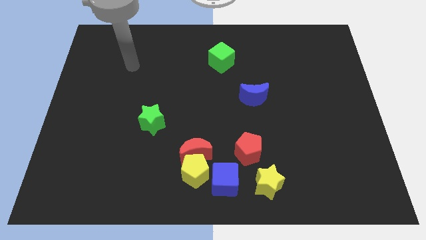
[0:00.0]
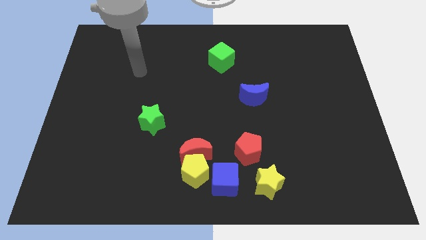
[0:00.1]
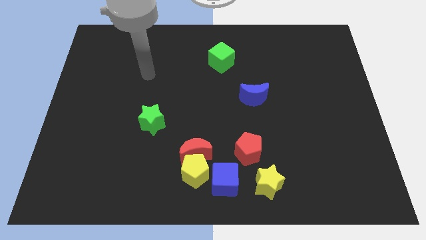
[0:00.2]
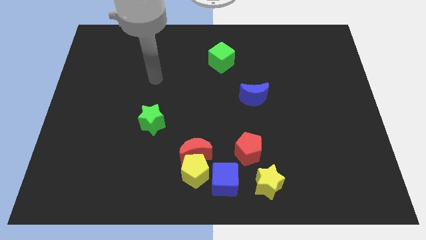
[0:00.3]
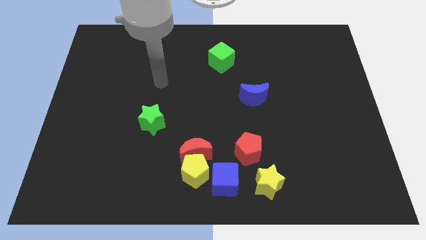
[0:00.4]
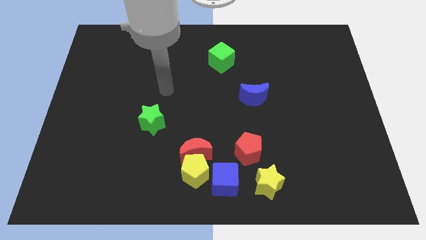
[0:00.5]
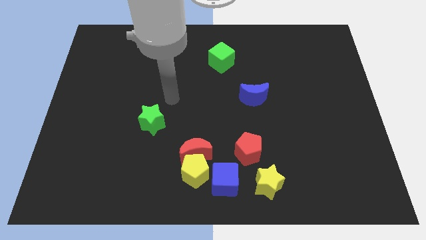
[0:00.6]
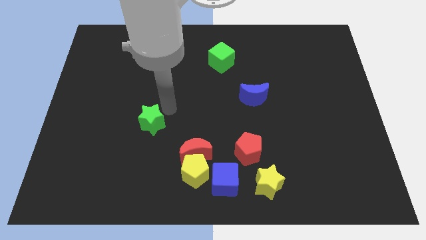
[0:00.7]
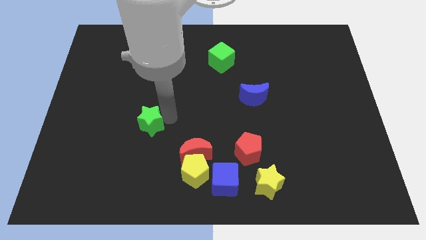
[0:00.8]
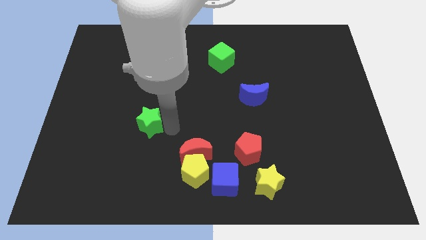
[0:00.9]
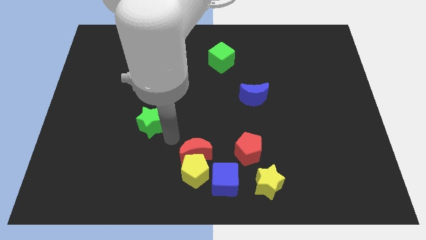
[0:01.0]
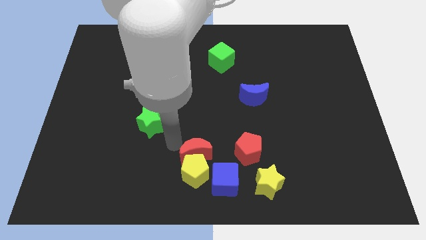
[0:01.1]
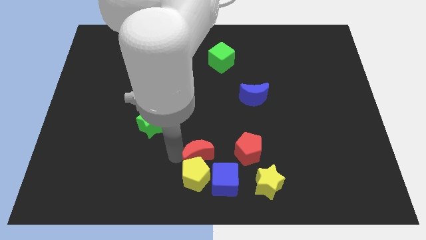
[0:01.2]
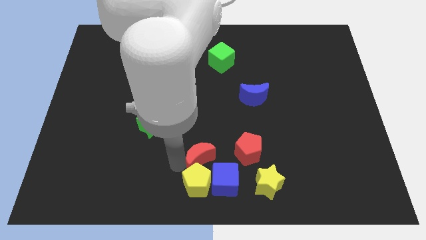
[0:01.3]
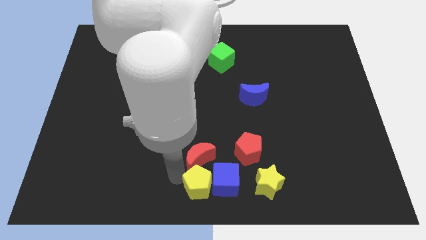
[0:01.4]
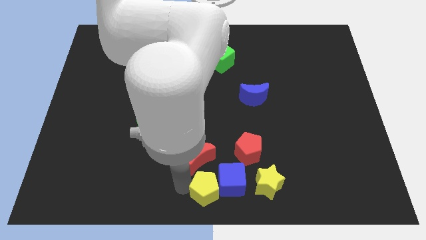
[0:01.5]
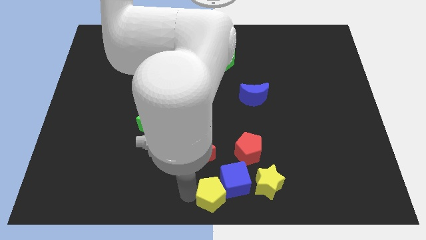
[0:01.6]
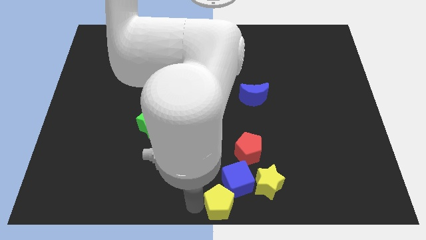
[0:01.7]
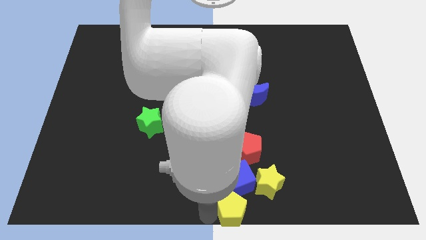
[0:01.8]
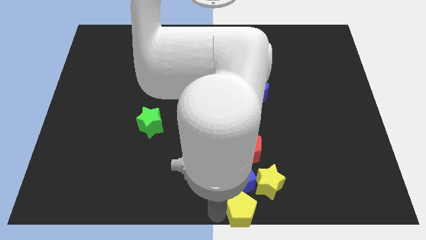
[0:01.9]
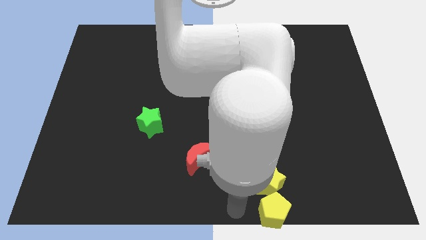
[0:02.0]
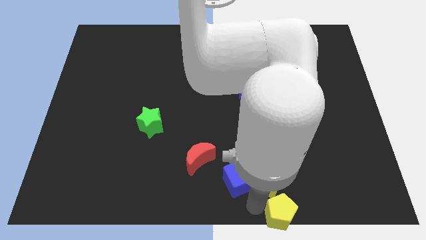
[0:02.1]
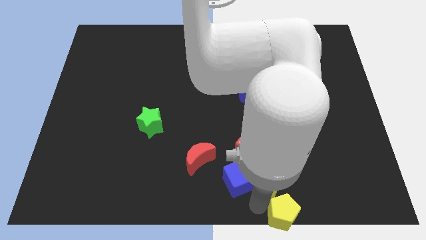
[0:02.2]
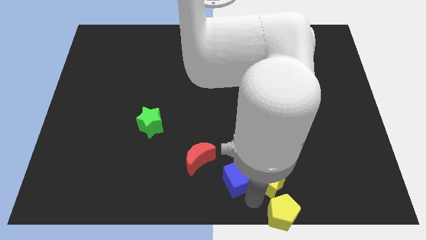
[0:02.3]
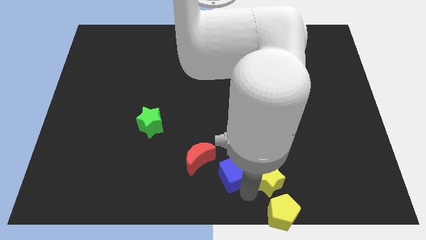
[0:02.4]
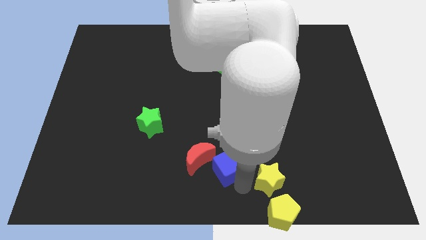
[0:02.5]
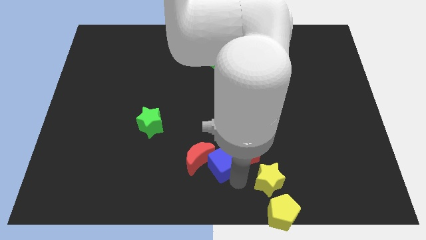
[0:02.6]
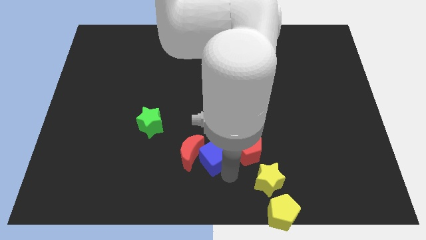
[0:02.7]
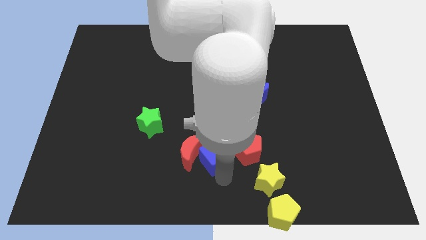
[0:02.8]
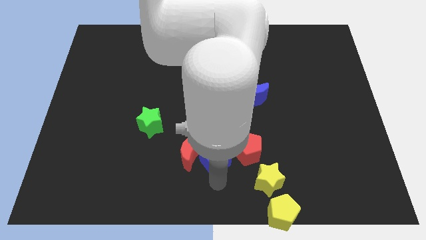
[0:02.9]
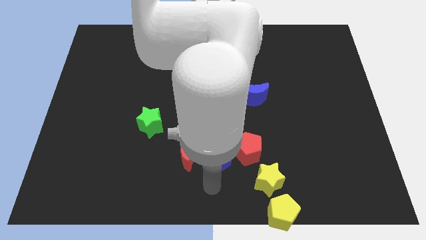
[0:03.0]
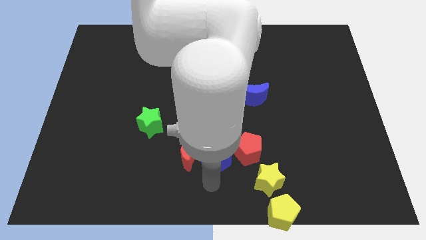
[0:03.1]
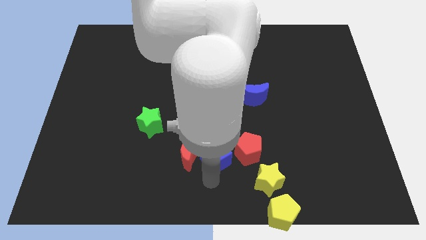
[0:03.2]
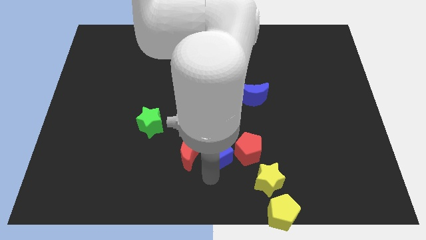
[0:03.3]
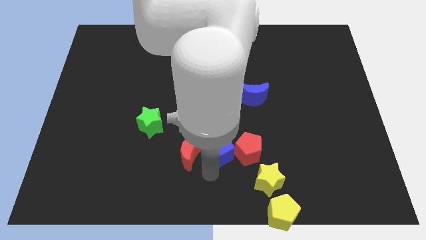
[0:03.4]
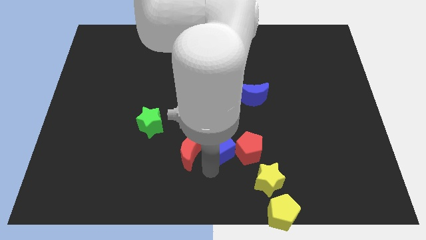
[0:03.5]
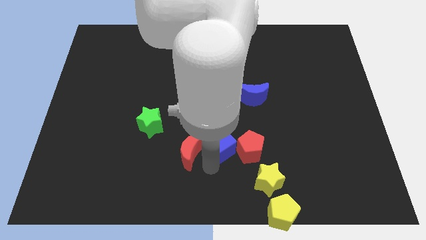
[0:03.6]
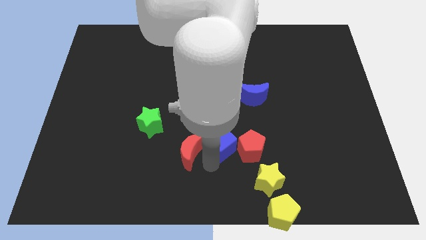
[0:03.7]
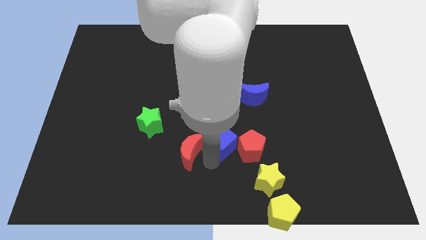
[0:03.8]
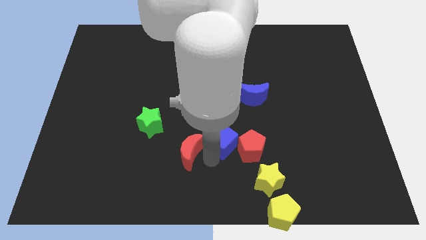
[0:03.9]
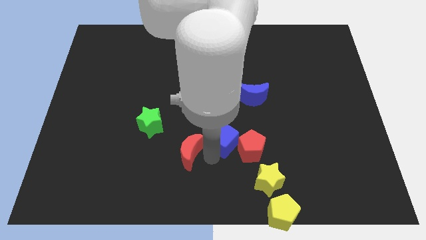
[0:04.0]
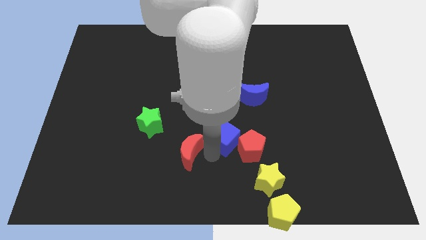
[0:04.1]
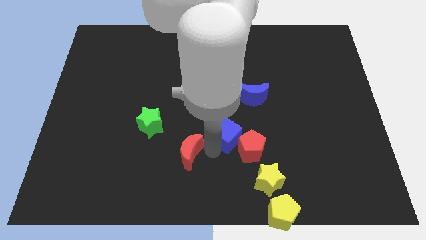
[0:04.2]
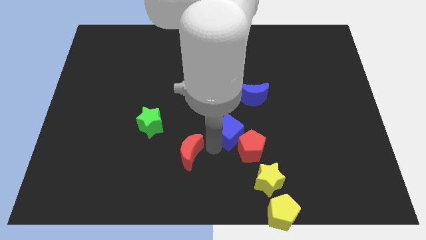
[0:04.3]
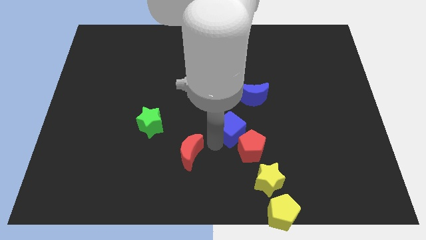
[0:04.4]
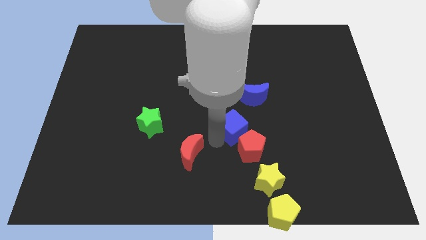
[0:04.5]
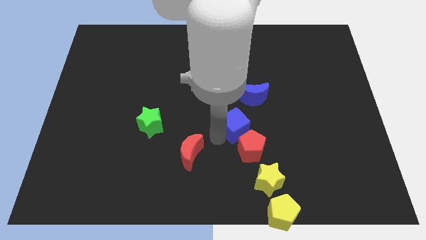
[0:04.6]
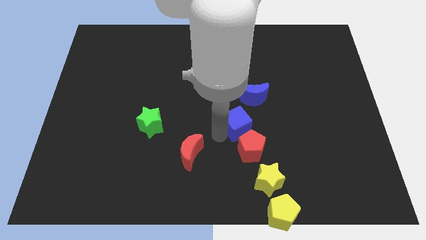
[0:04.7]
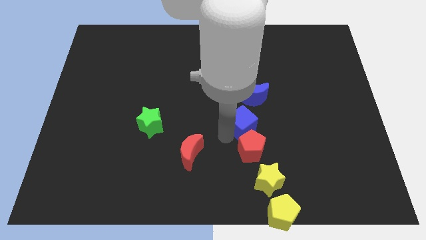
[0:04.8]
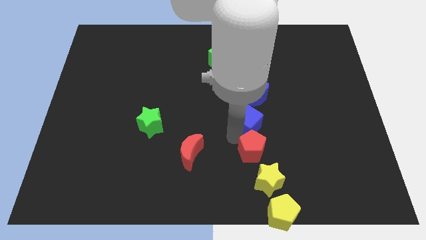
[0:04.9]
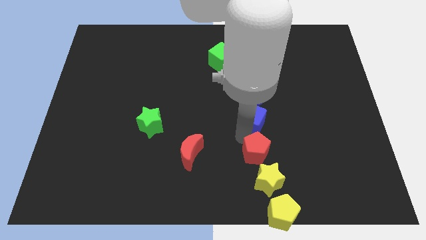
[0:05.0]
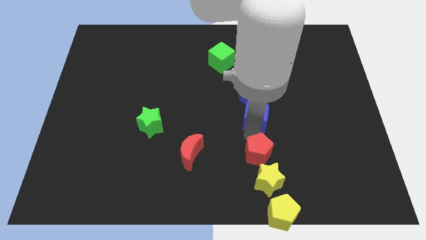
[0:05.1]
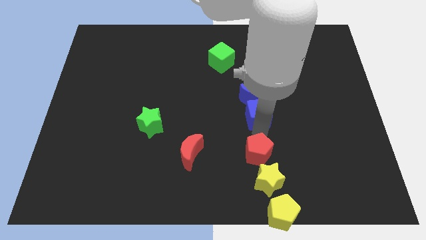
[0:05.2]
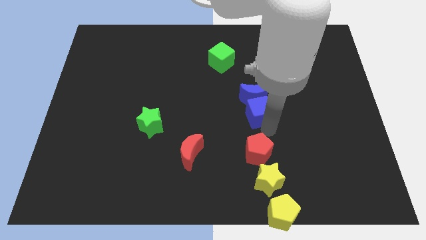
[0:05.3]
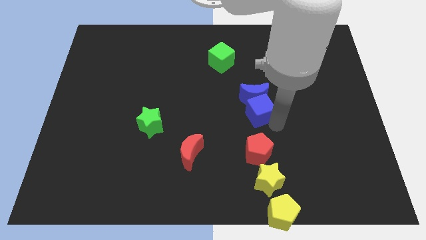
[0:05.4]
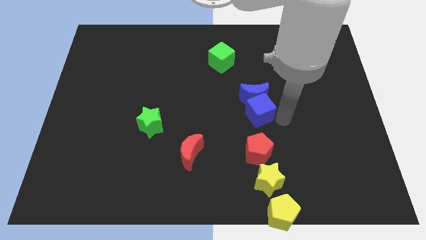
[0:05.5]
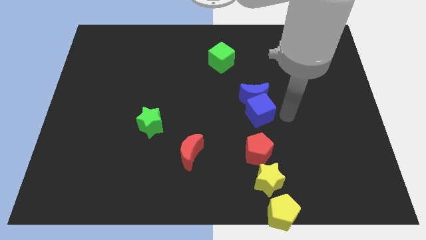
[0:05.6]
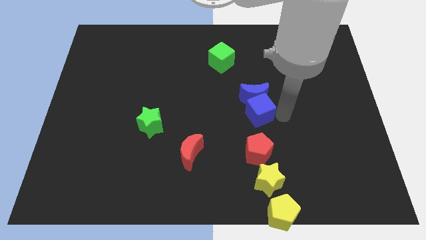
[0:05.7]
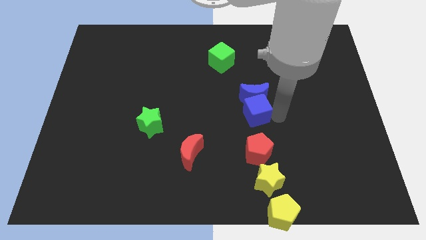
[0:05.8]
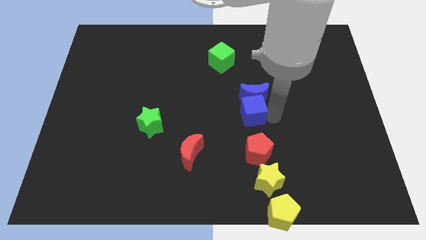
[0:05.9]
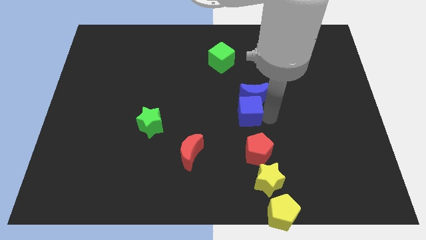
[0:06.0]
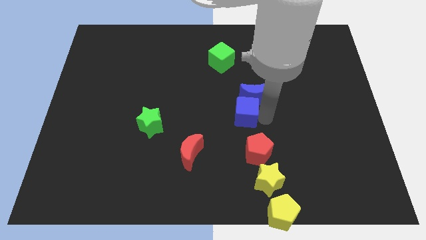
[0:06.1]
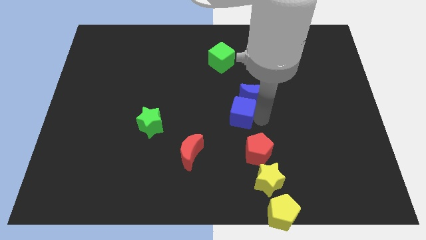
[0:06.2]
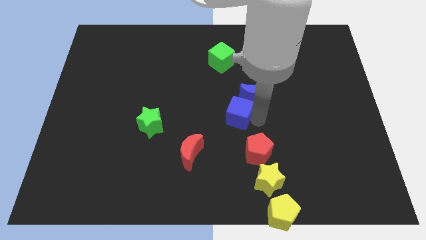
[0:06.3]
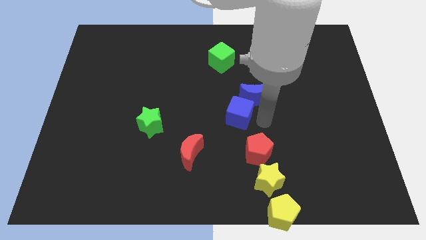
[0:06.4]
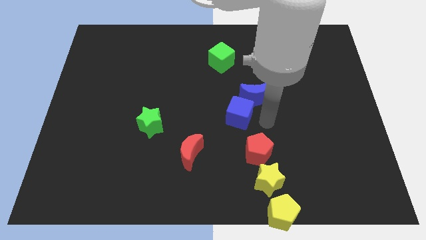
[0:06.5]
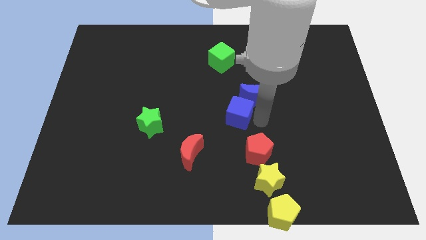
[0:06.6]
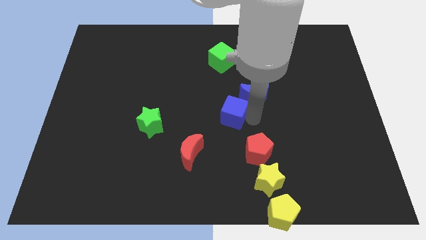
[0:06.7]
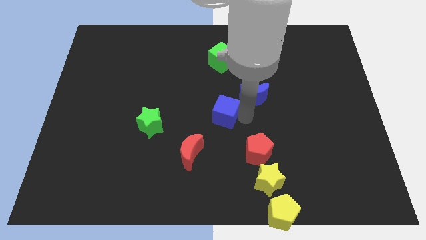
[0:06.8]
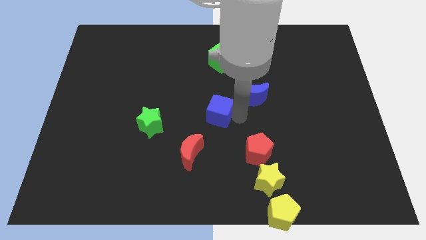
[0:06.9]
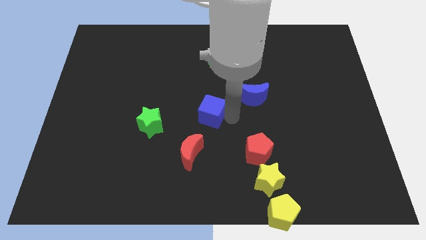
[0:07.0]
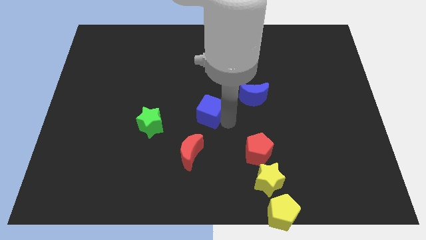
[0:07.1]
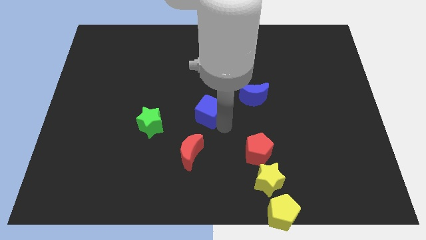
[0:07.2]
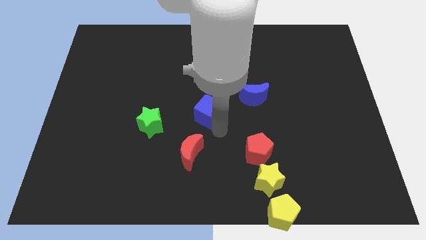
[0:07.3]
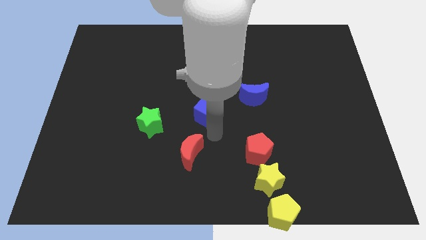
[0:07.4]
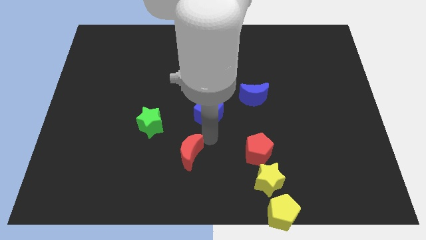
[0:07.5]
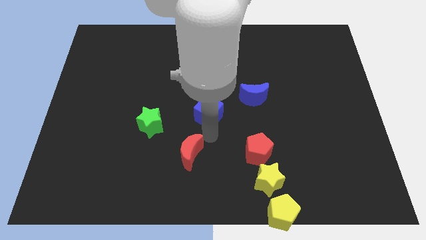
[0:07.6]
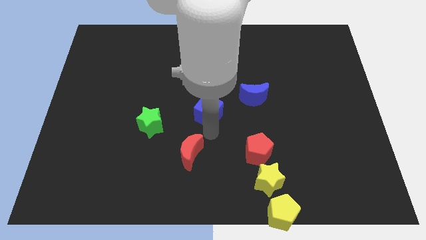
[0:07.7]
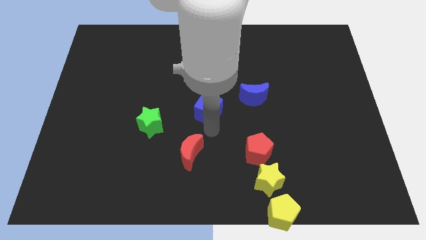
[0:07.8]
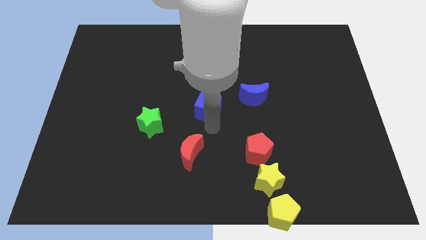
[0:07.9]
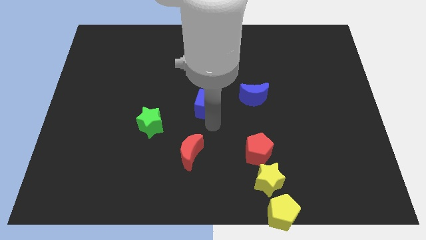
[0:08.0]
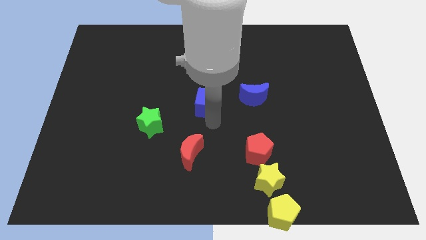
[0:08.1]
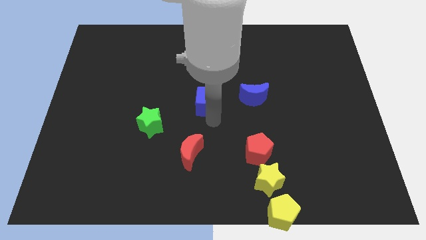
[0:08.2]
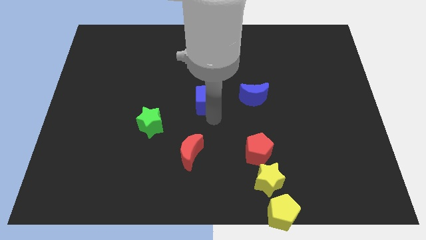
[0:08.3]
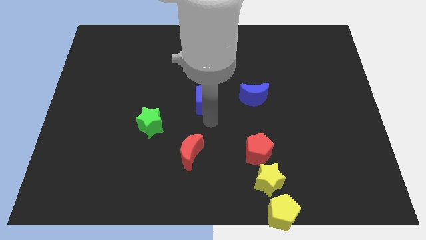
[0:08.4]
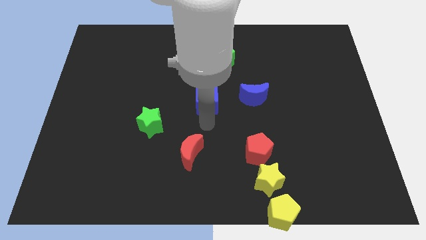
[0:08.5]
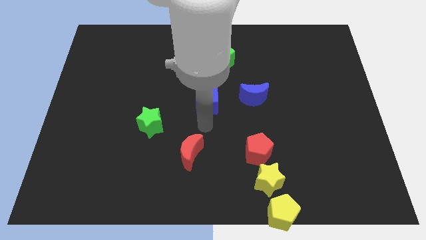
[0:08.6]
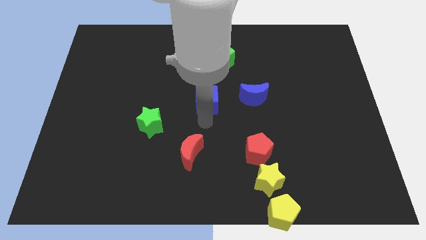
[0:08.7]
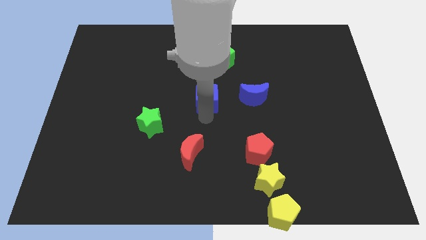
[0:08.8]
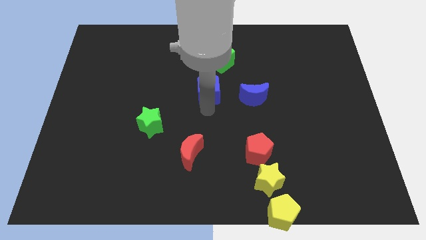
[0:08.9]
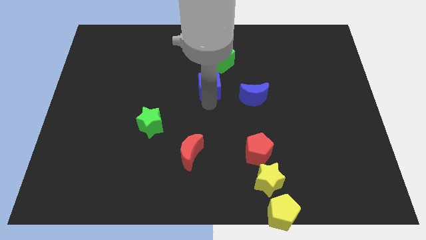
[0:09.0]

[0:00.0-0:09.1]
slide the blue cube to the bottom left of the green cube
